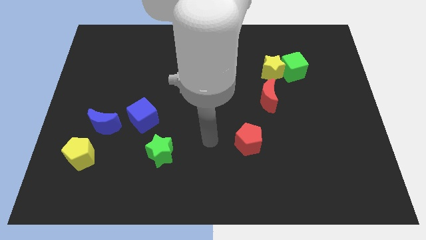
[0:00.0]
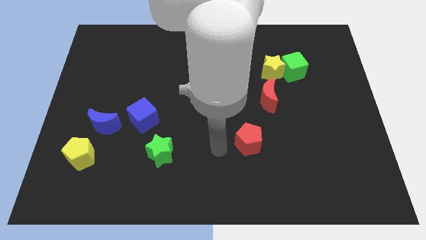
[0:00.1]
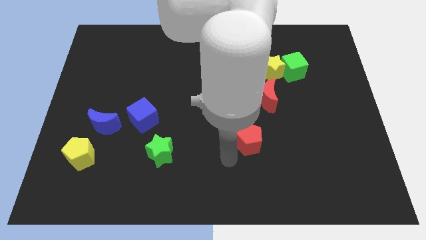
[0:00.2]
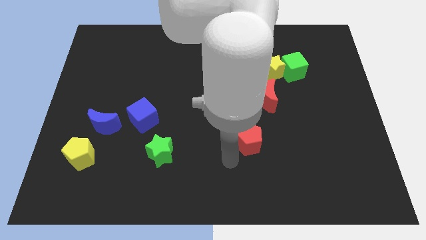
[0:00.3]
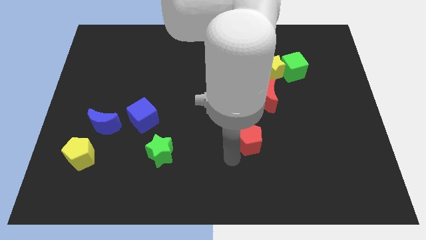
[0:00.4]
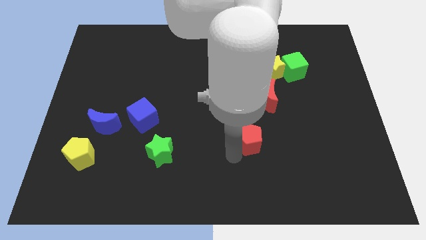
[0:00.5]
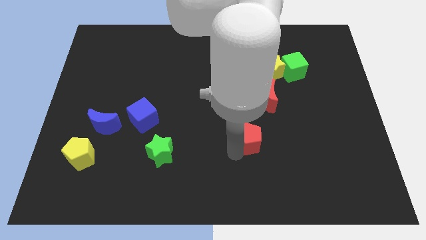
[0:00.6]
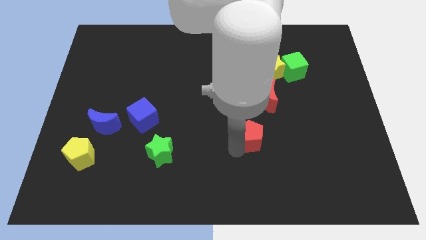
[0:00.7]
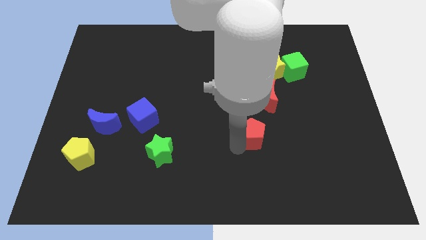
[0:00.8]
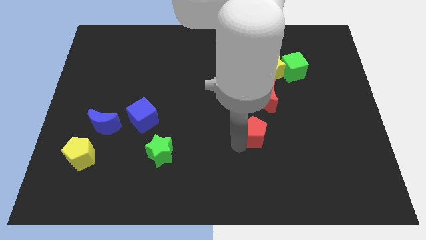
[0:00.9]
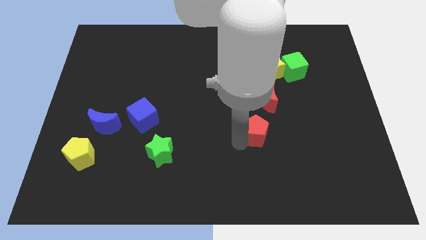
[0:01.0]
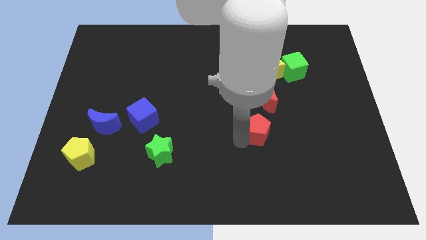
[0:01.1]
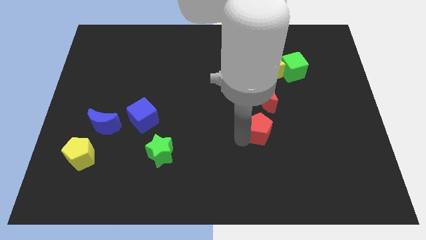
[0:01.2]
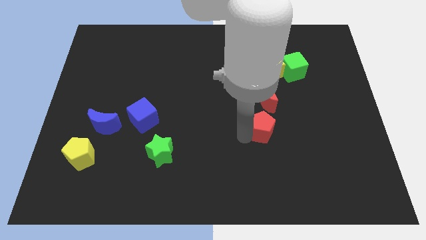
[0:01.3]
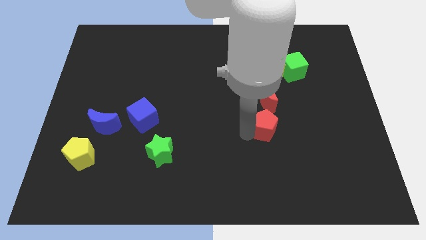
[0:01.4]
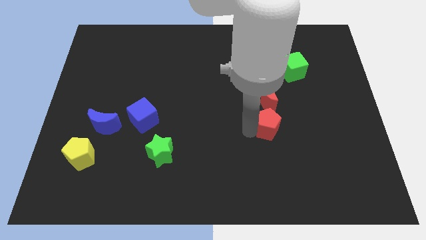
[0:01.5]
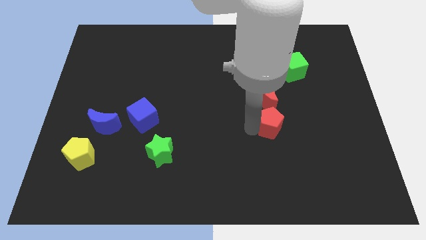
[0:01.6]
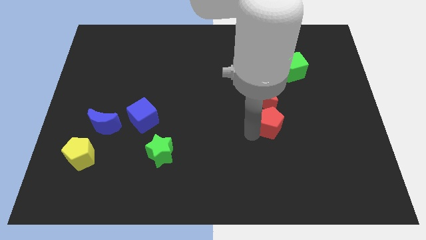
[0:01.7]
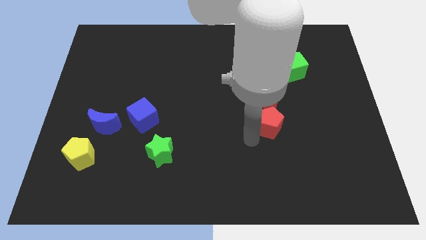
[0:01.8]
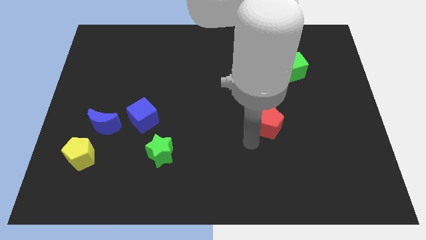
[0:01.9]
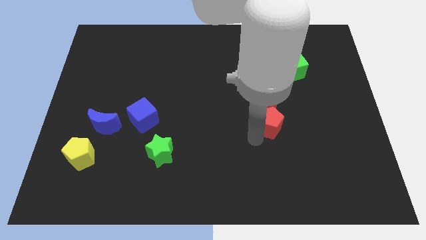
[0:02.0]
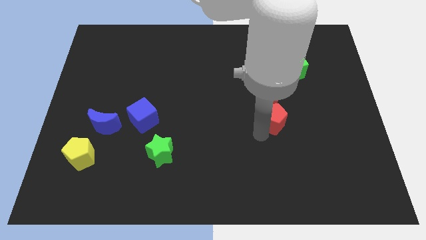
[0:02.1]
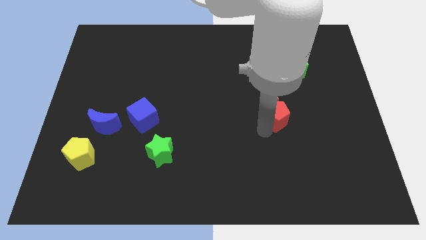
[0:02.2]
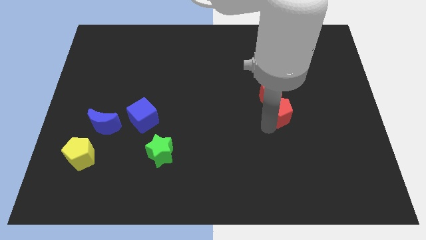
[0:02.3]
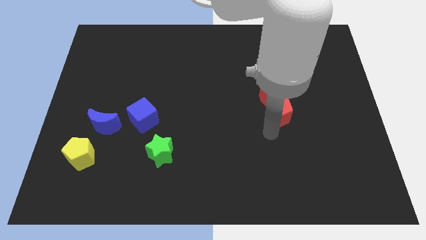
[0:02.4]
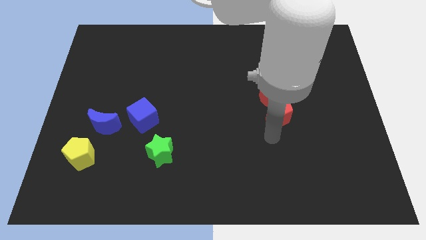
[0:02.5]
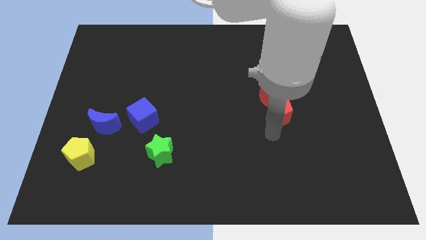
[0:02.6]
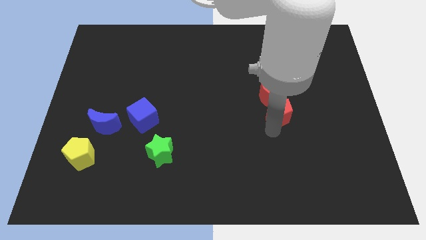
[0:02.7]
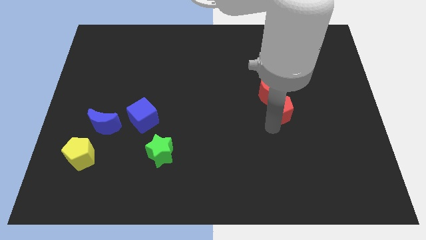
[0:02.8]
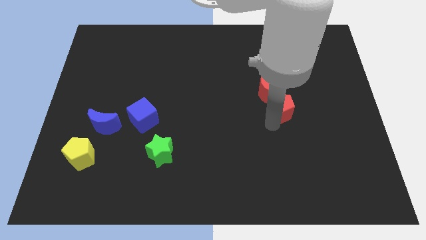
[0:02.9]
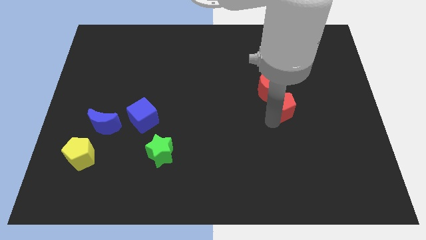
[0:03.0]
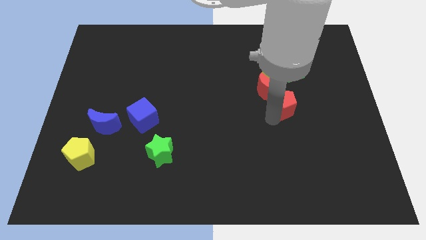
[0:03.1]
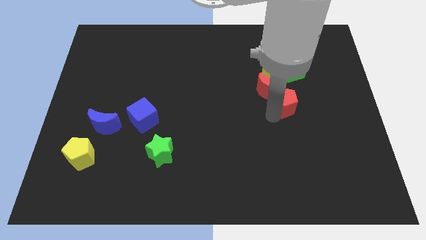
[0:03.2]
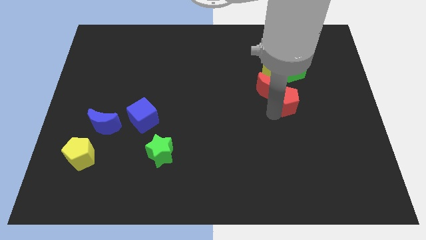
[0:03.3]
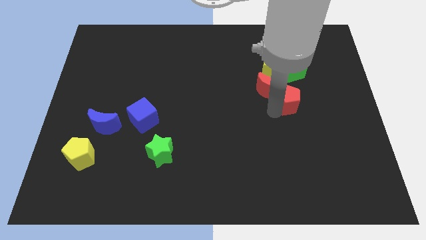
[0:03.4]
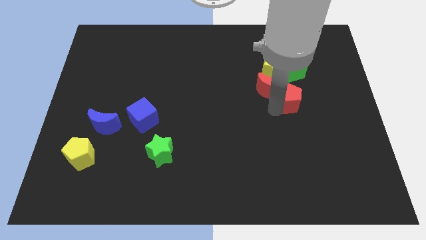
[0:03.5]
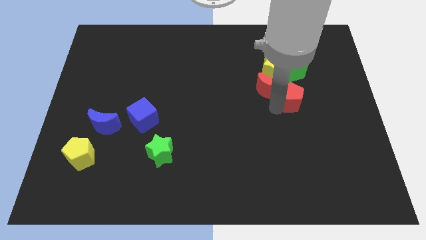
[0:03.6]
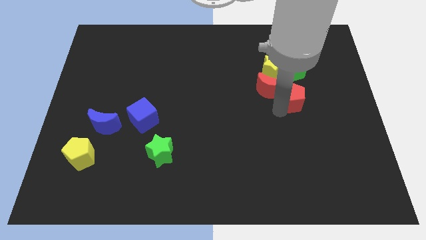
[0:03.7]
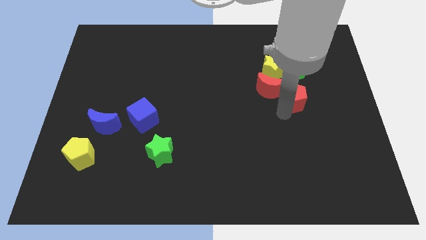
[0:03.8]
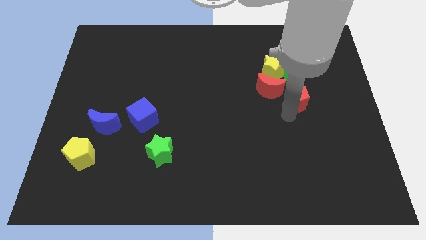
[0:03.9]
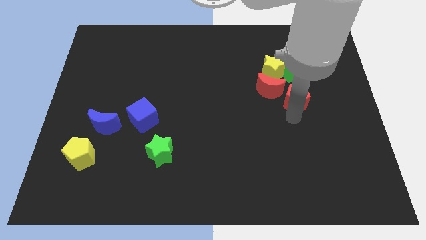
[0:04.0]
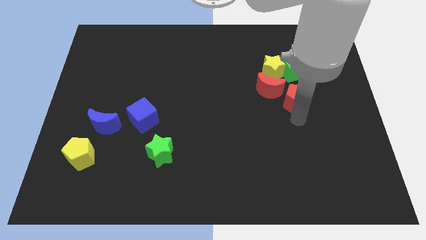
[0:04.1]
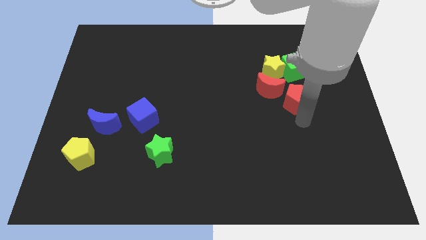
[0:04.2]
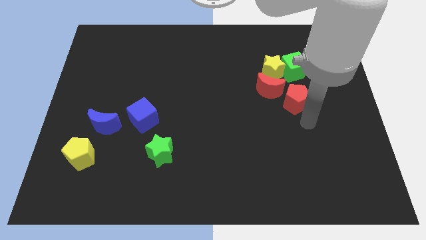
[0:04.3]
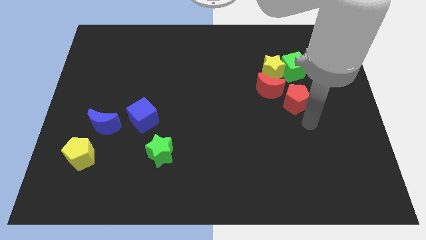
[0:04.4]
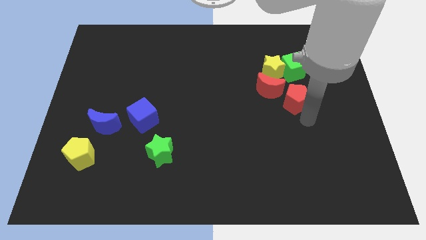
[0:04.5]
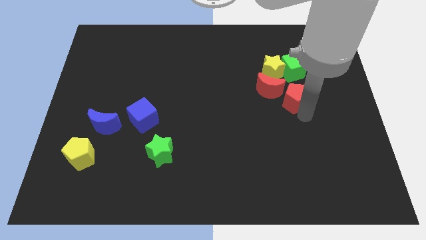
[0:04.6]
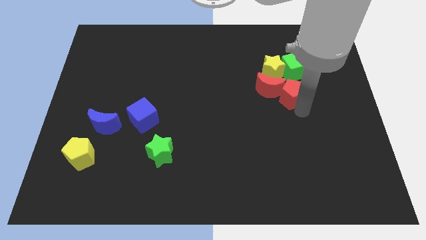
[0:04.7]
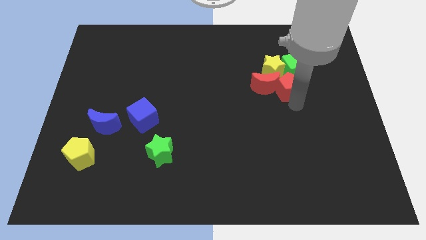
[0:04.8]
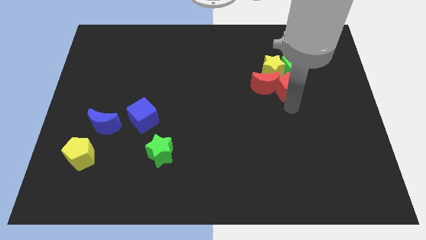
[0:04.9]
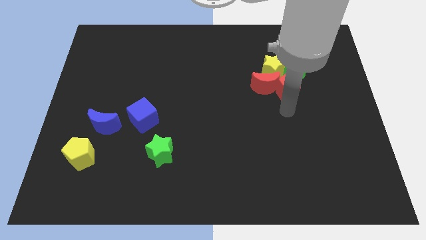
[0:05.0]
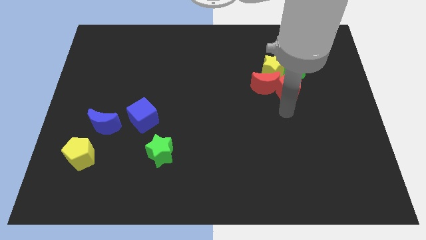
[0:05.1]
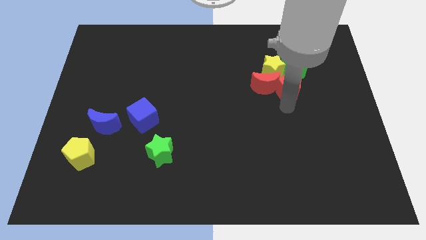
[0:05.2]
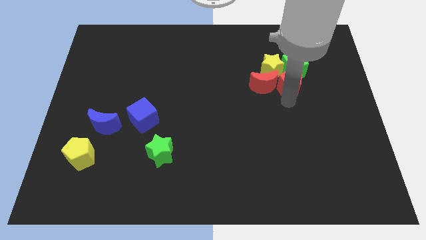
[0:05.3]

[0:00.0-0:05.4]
push the red pentagon close to the green cube

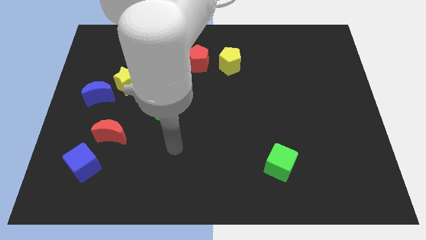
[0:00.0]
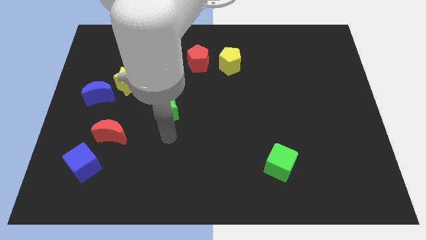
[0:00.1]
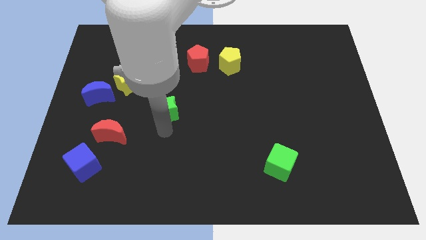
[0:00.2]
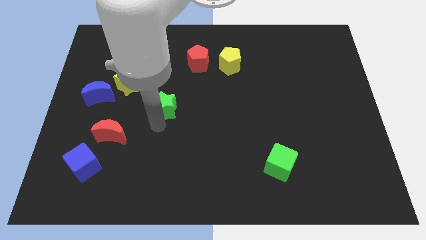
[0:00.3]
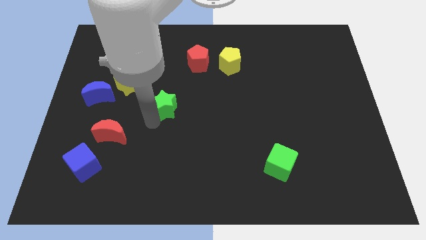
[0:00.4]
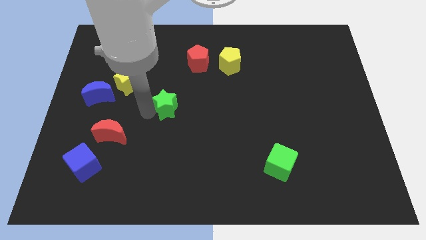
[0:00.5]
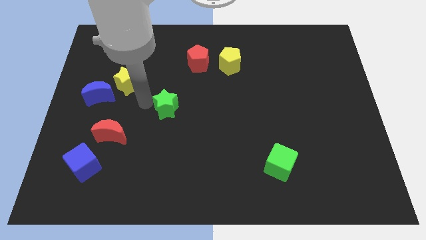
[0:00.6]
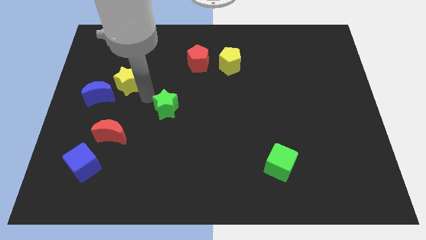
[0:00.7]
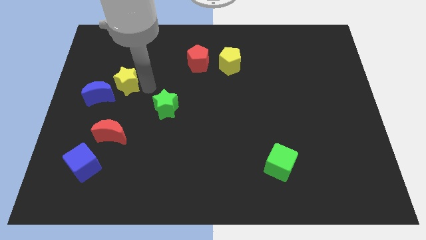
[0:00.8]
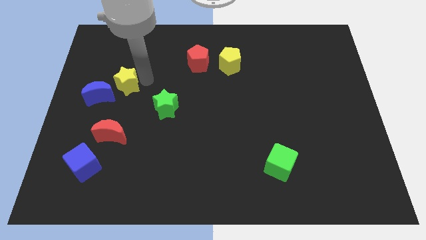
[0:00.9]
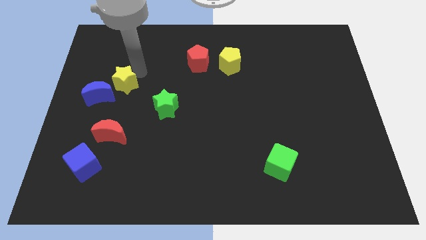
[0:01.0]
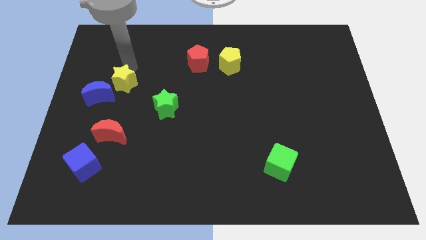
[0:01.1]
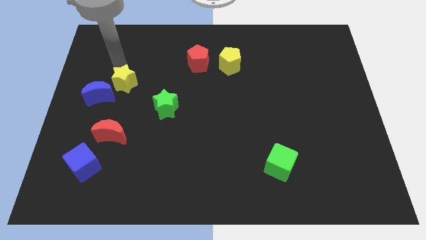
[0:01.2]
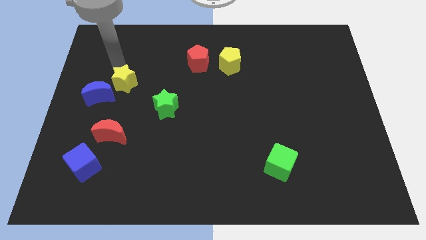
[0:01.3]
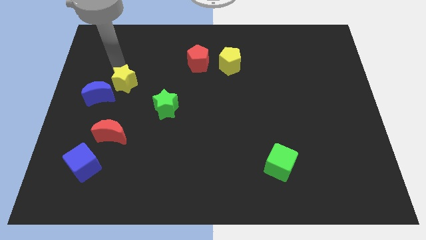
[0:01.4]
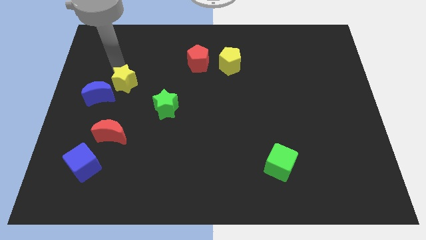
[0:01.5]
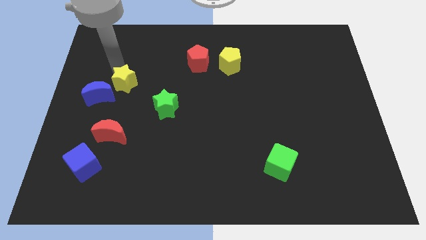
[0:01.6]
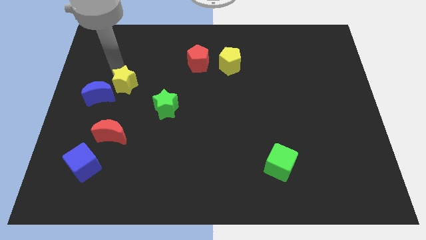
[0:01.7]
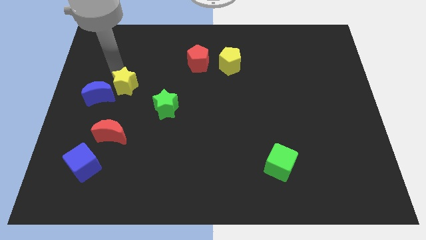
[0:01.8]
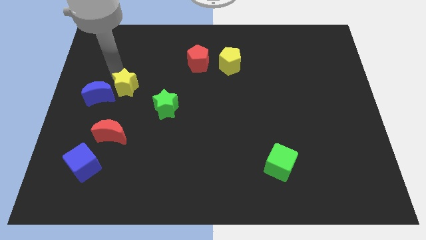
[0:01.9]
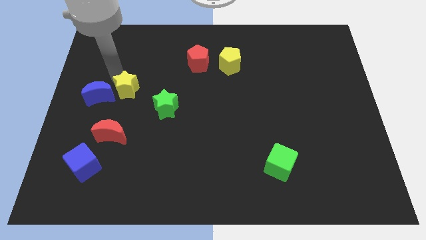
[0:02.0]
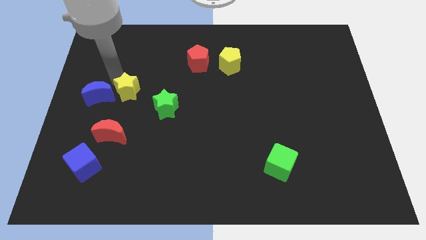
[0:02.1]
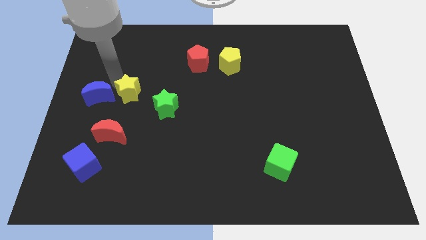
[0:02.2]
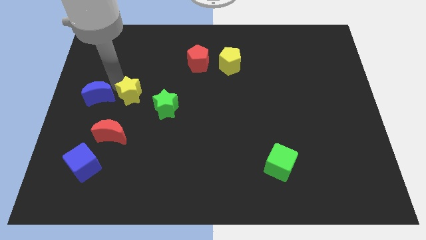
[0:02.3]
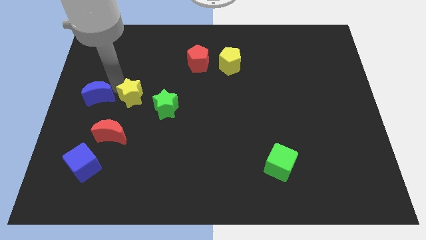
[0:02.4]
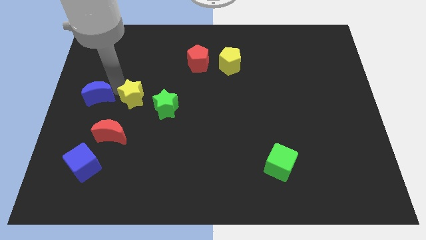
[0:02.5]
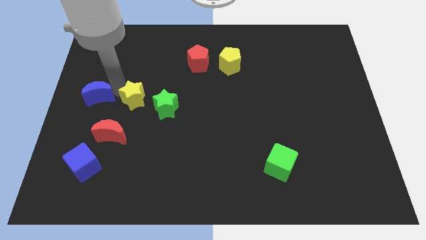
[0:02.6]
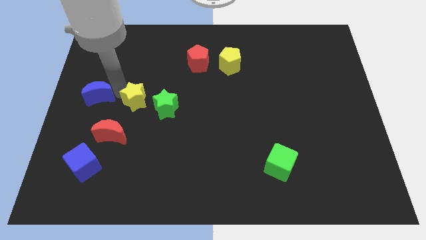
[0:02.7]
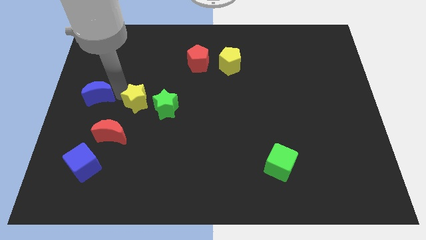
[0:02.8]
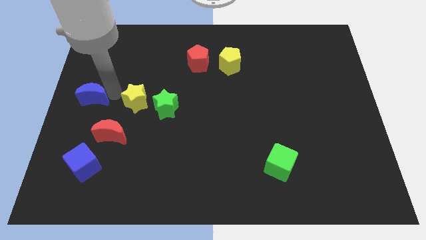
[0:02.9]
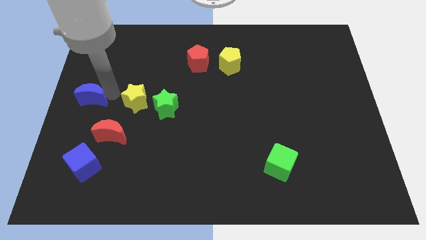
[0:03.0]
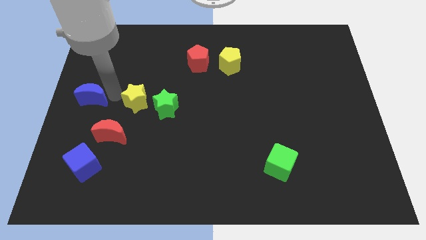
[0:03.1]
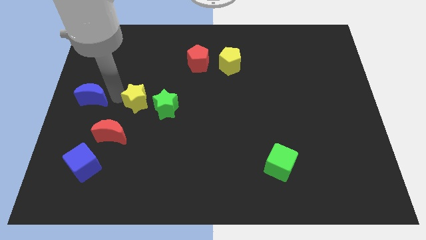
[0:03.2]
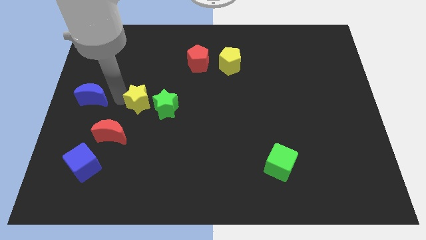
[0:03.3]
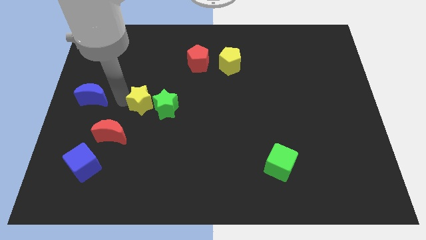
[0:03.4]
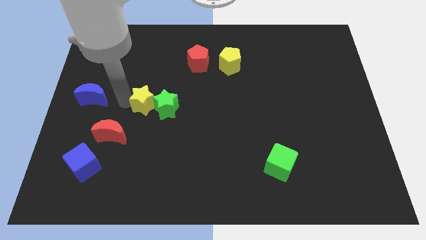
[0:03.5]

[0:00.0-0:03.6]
push the yellow star to the green star
